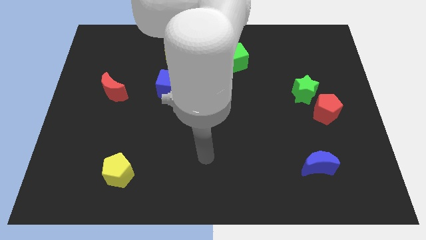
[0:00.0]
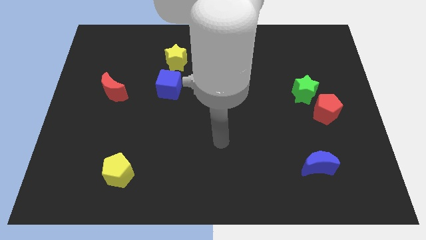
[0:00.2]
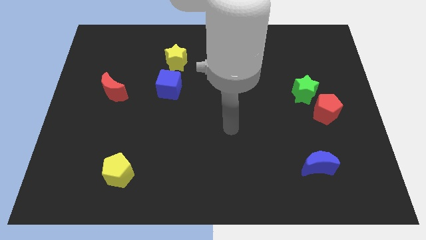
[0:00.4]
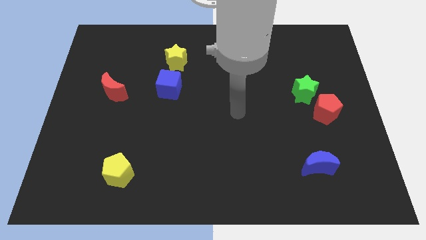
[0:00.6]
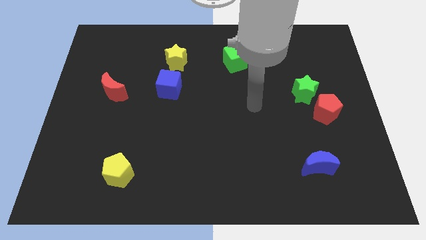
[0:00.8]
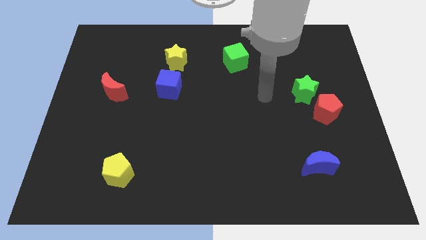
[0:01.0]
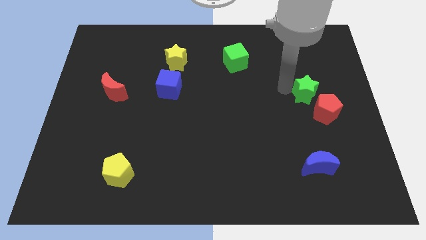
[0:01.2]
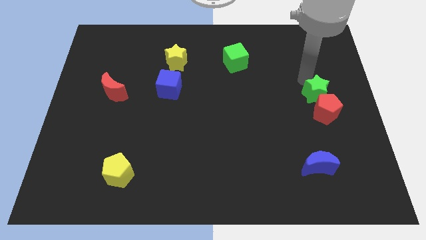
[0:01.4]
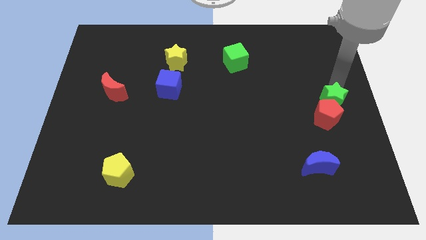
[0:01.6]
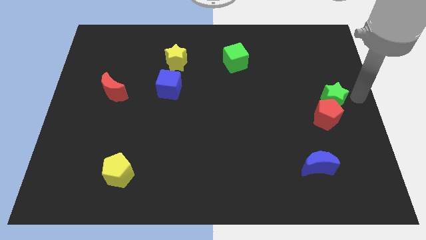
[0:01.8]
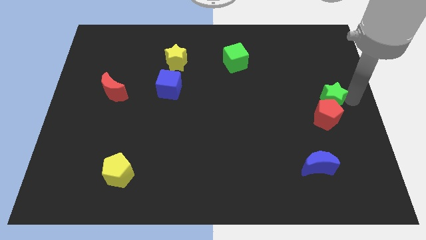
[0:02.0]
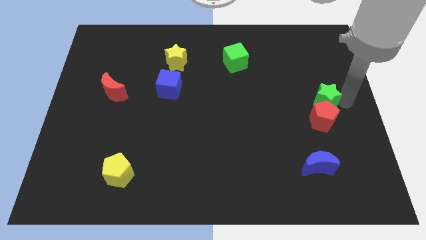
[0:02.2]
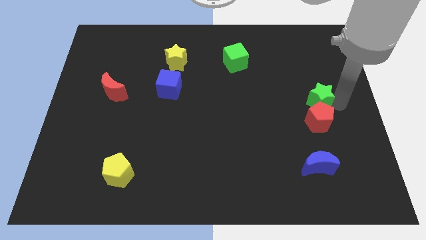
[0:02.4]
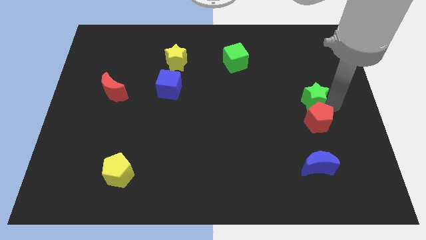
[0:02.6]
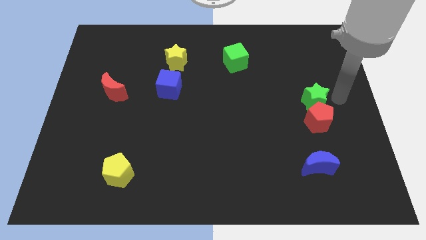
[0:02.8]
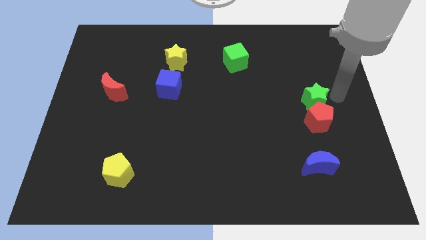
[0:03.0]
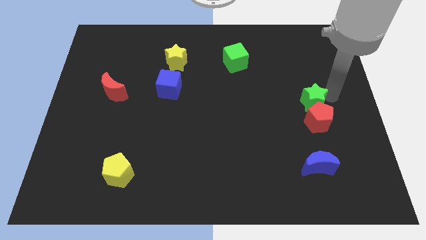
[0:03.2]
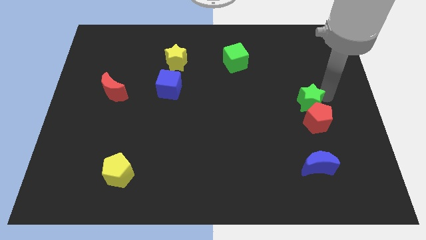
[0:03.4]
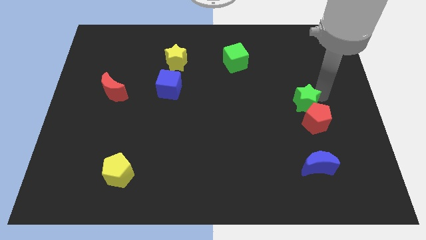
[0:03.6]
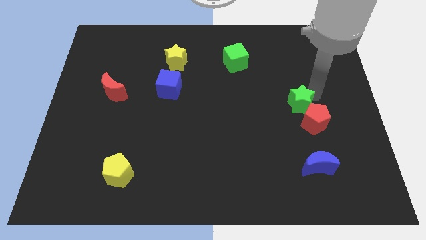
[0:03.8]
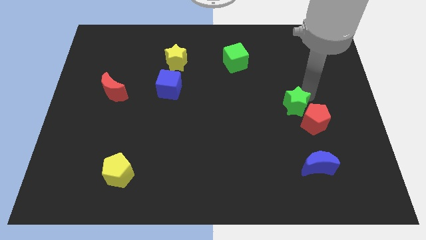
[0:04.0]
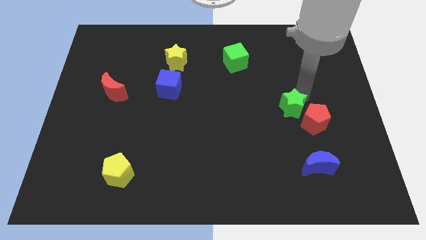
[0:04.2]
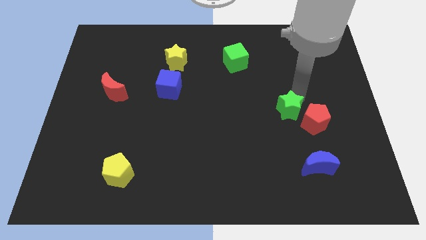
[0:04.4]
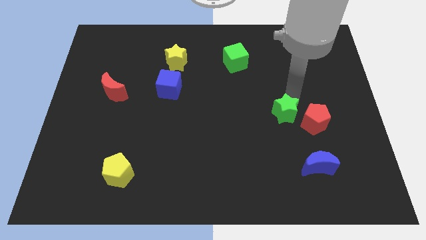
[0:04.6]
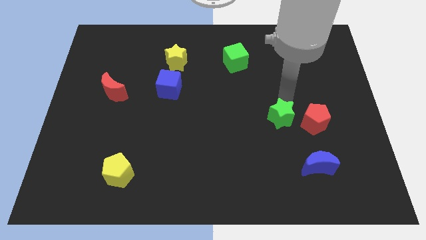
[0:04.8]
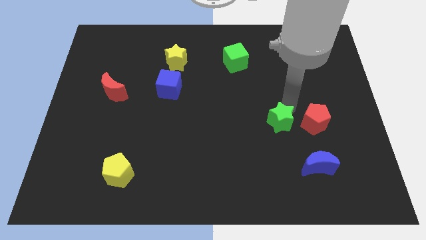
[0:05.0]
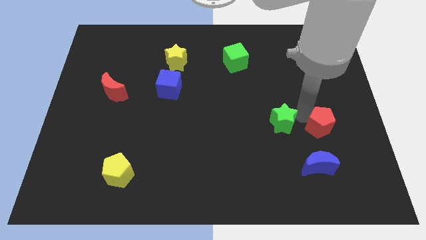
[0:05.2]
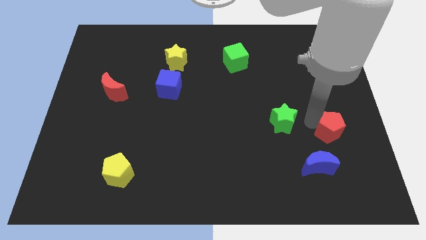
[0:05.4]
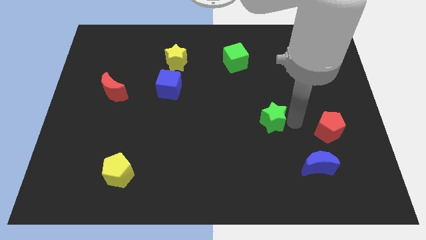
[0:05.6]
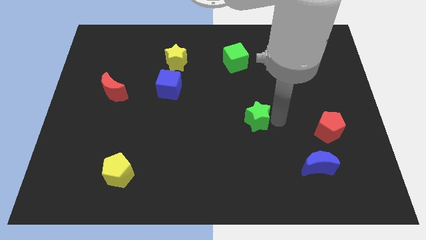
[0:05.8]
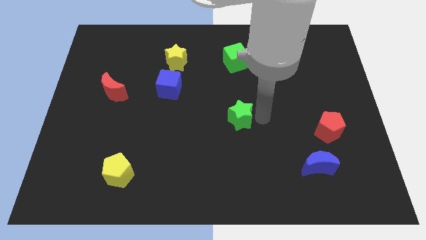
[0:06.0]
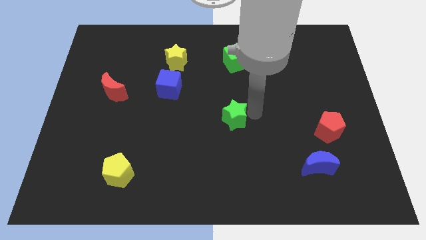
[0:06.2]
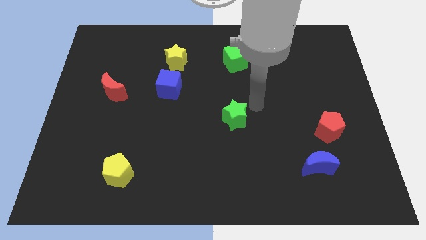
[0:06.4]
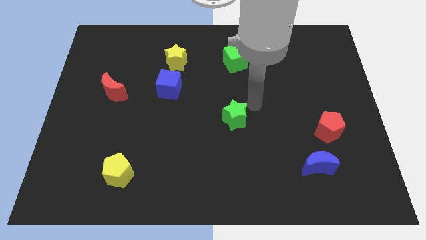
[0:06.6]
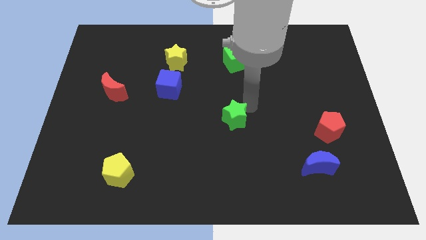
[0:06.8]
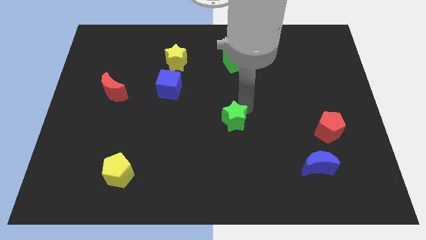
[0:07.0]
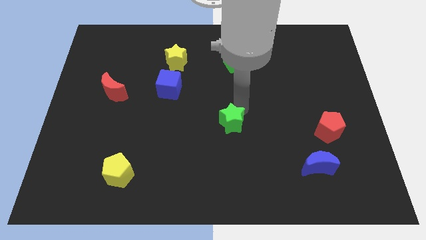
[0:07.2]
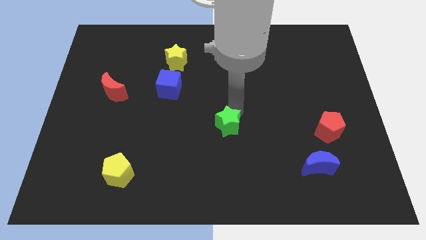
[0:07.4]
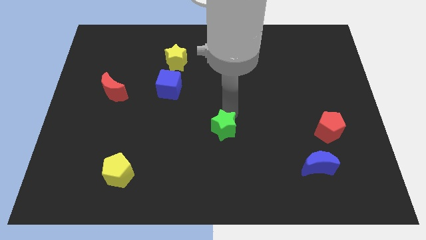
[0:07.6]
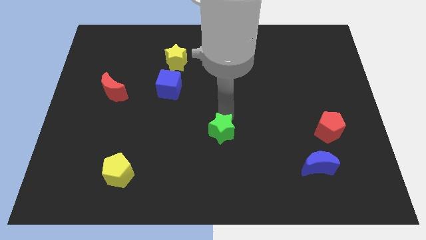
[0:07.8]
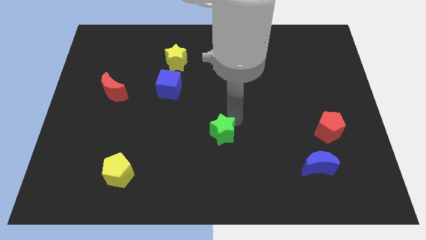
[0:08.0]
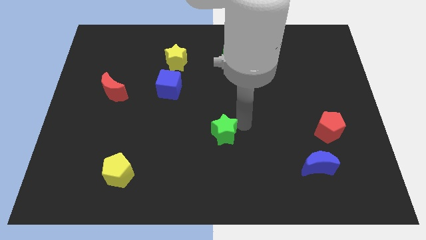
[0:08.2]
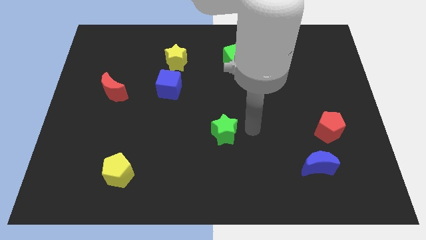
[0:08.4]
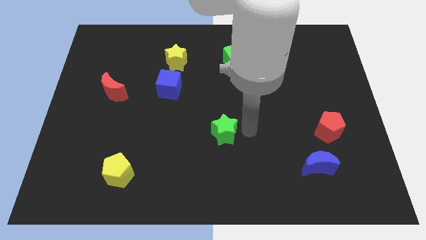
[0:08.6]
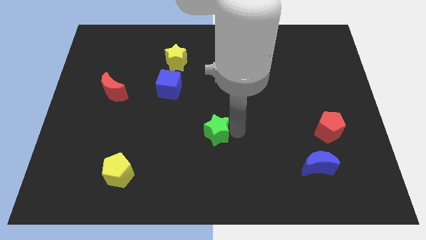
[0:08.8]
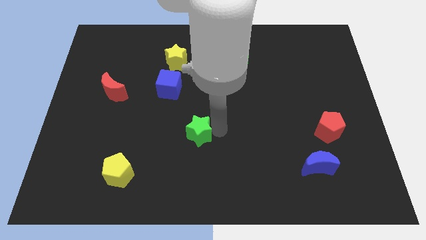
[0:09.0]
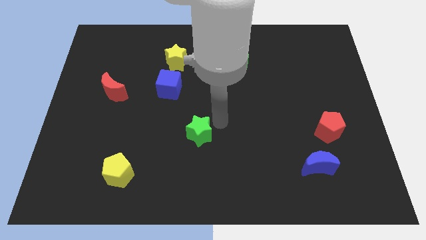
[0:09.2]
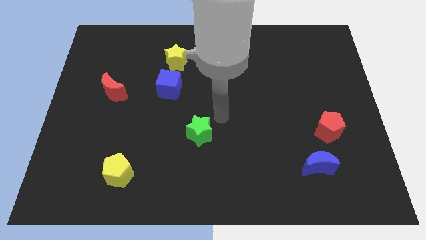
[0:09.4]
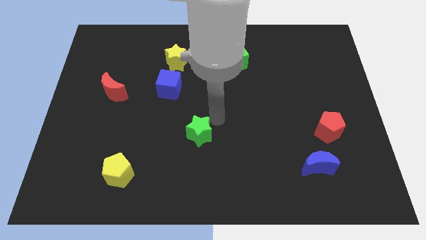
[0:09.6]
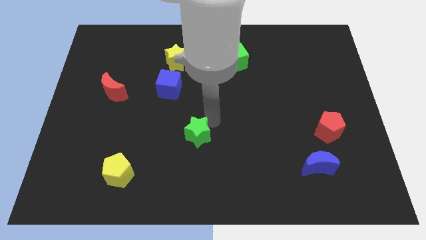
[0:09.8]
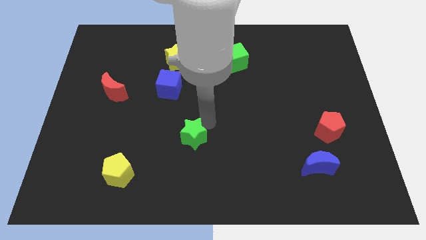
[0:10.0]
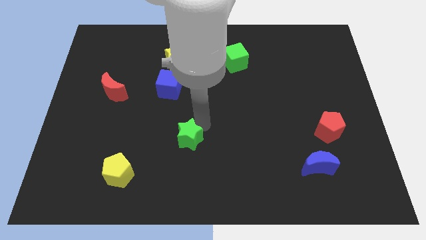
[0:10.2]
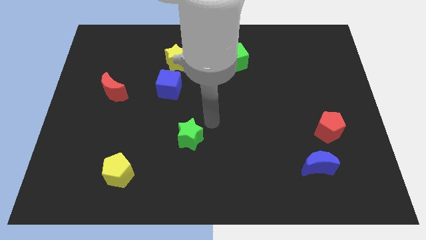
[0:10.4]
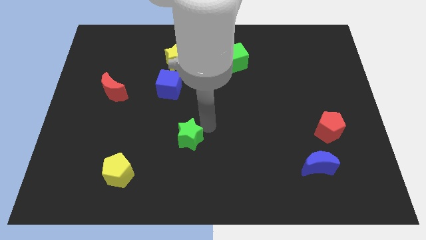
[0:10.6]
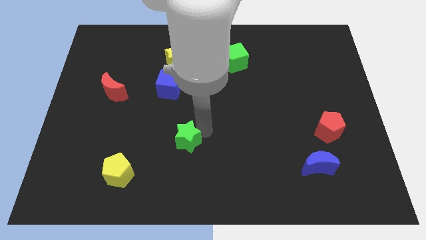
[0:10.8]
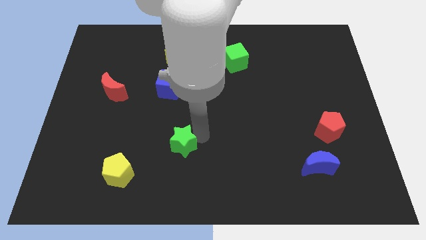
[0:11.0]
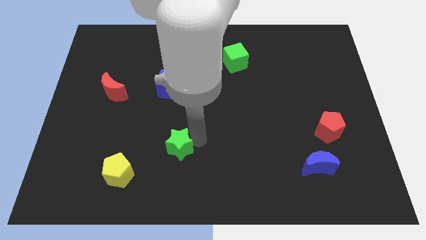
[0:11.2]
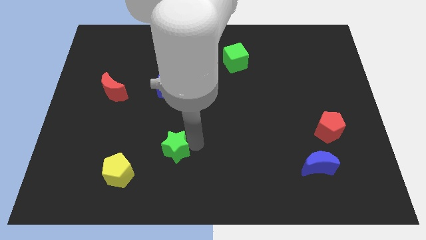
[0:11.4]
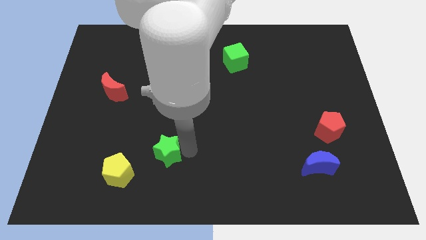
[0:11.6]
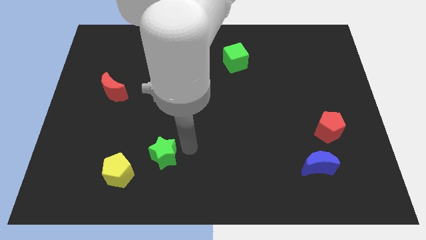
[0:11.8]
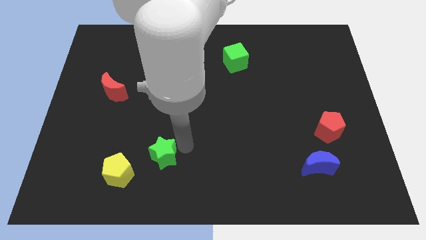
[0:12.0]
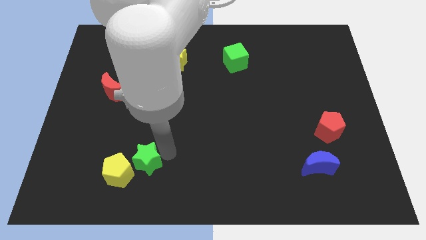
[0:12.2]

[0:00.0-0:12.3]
push the green star to the yellow pentagon

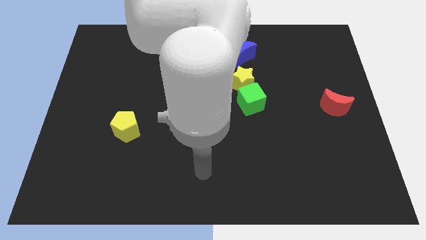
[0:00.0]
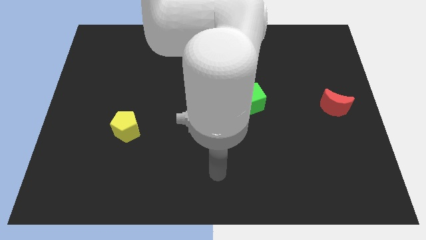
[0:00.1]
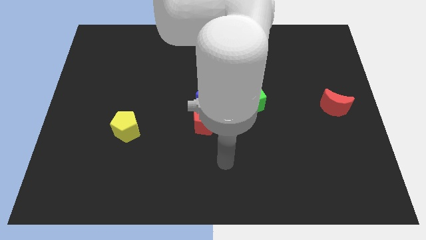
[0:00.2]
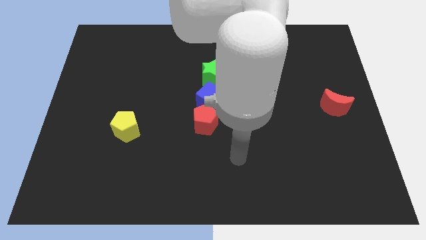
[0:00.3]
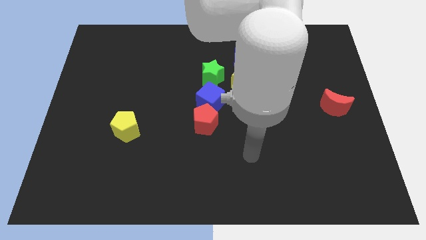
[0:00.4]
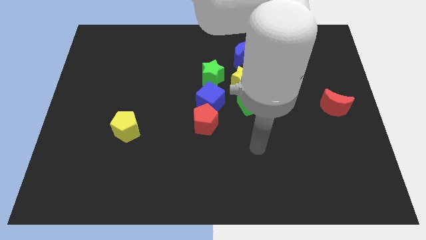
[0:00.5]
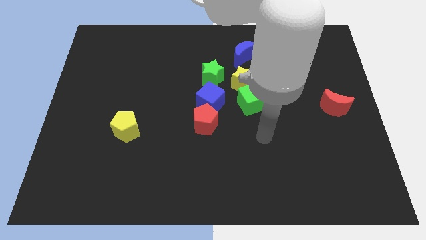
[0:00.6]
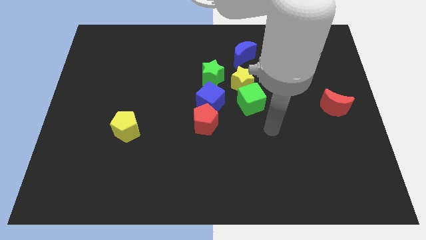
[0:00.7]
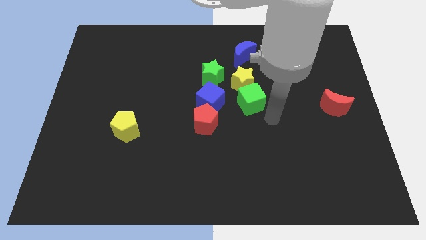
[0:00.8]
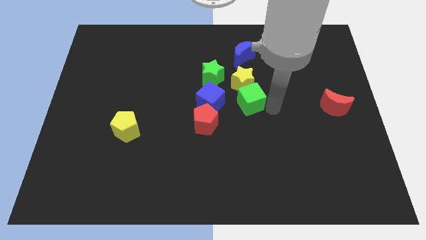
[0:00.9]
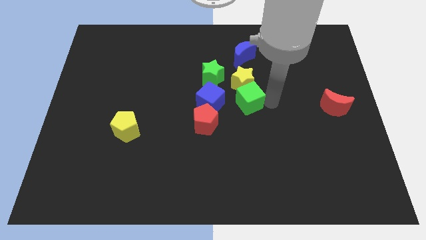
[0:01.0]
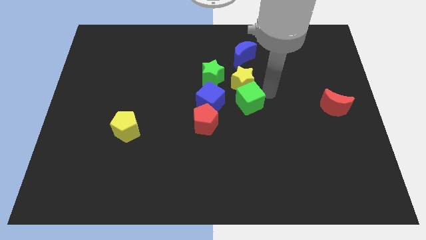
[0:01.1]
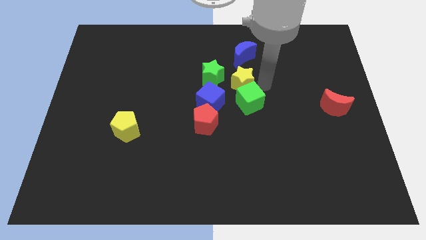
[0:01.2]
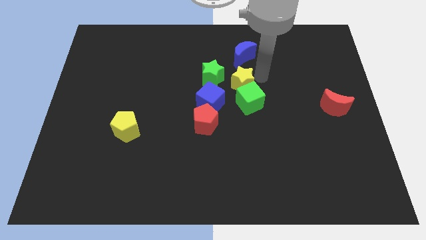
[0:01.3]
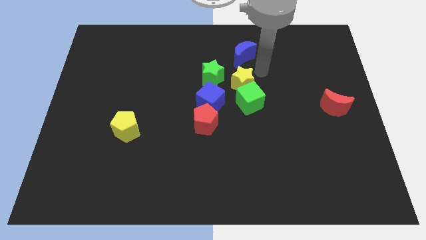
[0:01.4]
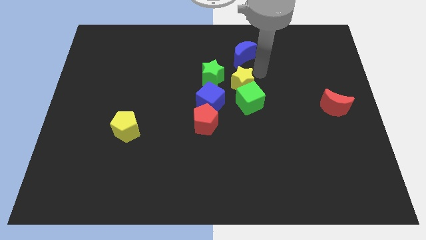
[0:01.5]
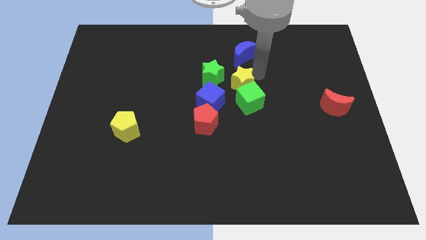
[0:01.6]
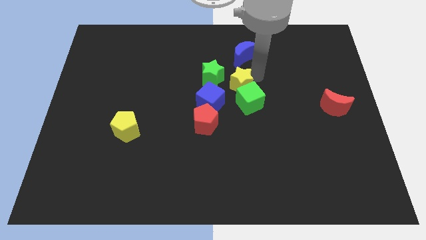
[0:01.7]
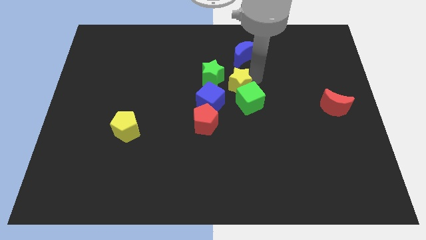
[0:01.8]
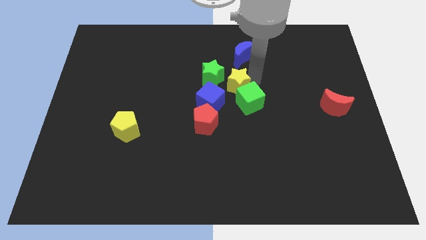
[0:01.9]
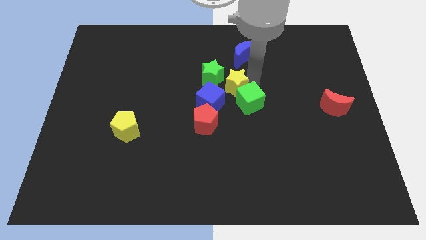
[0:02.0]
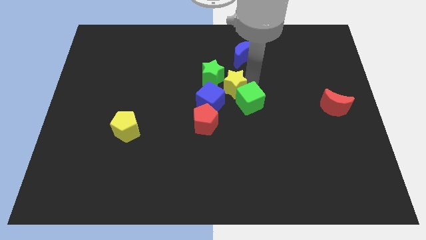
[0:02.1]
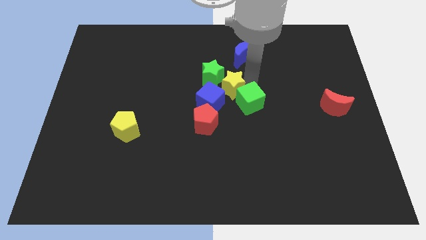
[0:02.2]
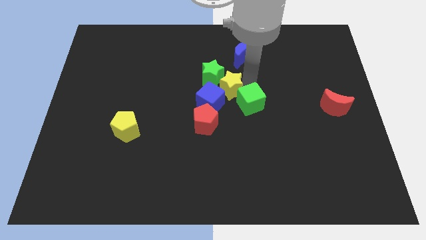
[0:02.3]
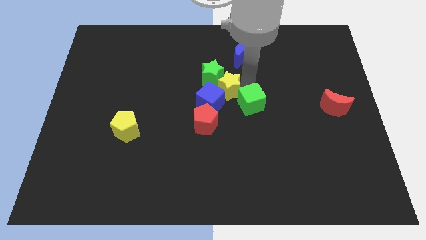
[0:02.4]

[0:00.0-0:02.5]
slide the yellow star next to the blue cube
